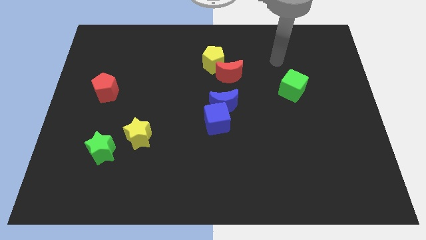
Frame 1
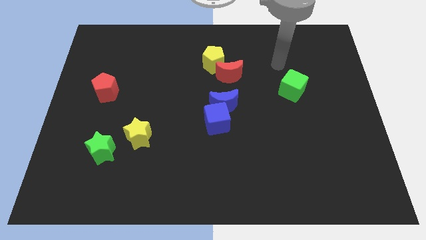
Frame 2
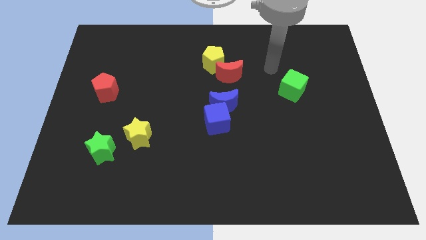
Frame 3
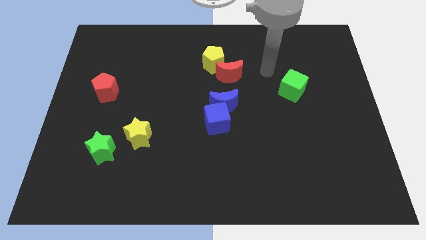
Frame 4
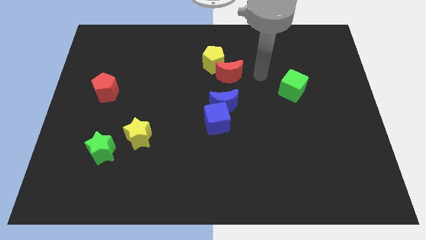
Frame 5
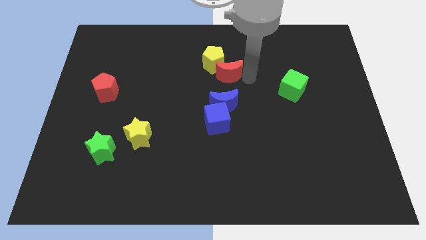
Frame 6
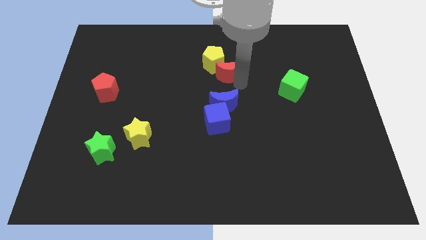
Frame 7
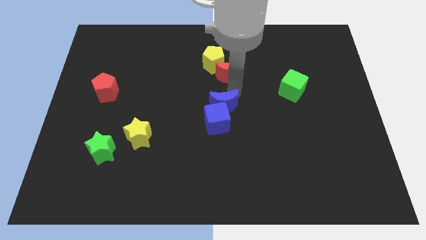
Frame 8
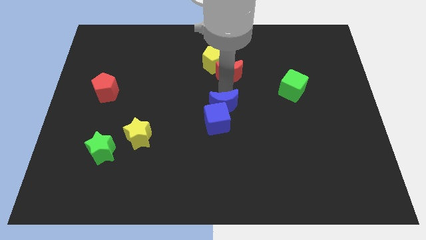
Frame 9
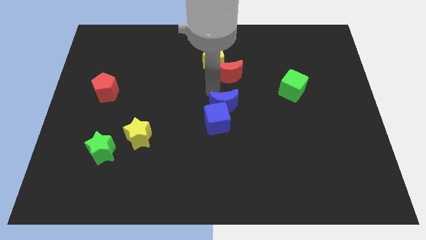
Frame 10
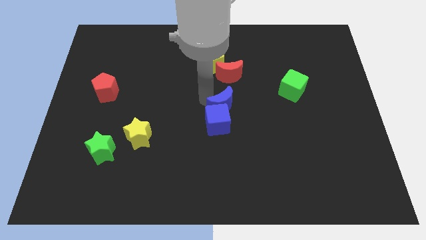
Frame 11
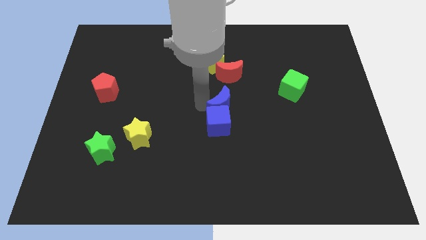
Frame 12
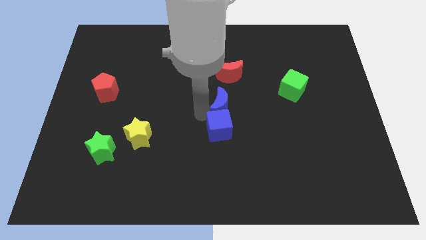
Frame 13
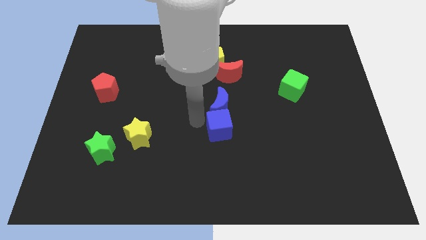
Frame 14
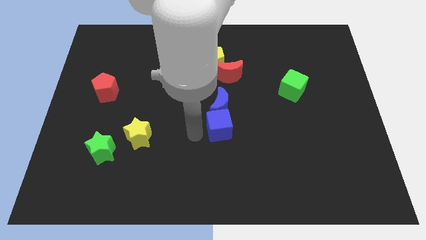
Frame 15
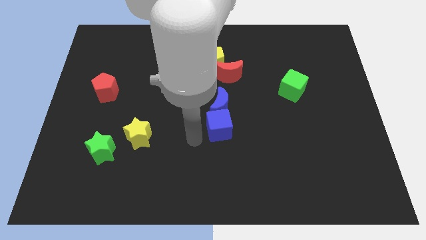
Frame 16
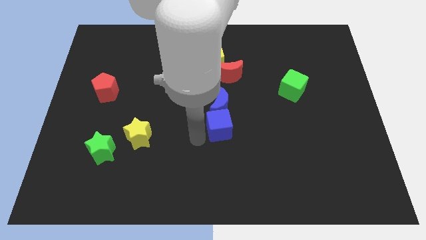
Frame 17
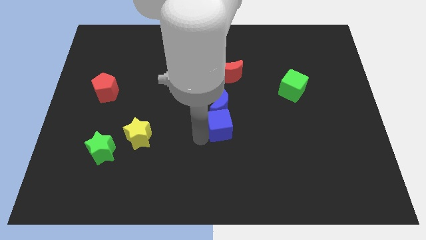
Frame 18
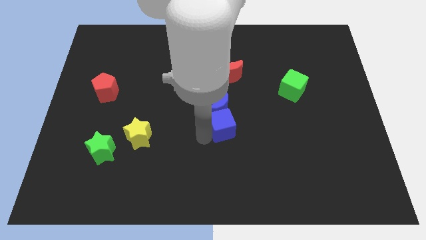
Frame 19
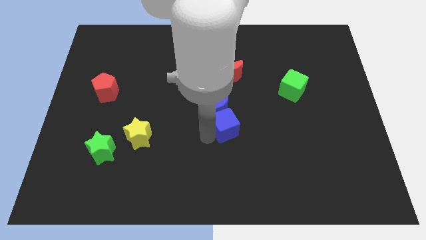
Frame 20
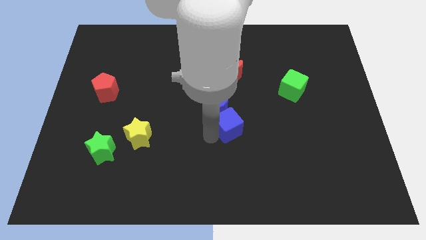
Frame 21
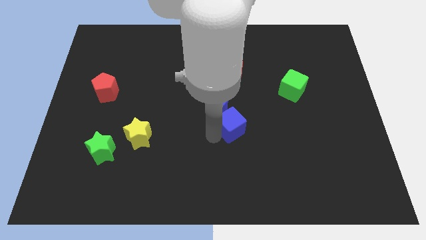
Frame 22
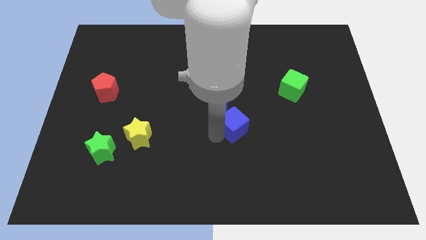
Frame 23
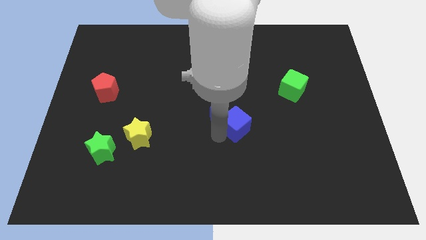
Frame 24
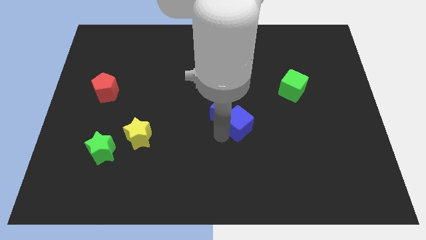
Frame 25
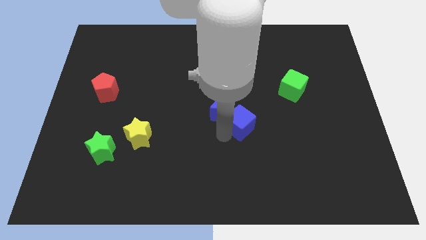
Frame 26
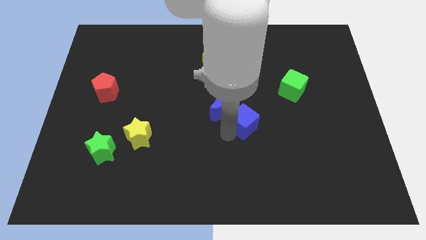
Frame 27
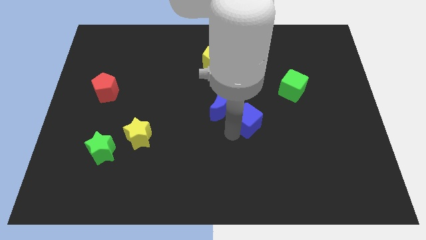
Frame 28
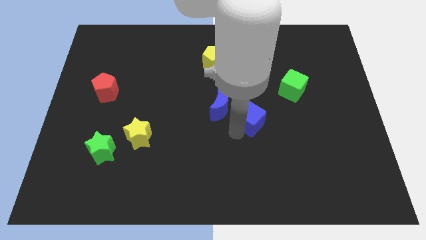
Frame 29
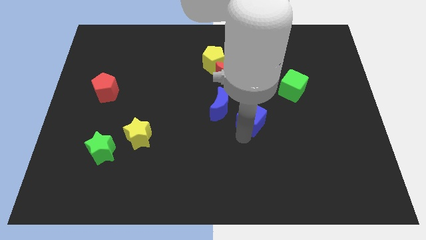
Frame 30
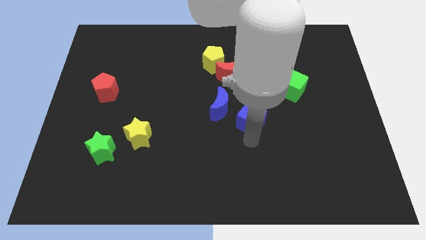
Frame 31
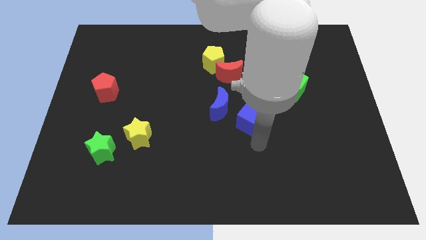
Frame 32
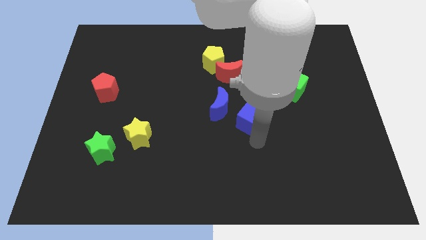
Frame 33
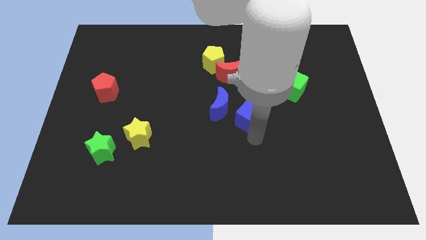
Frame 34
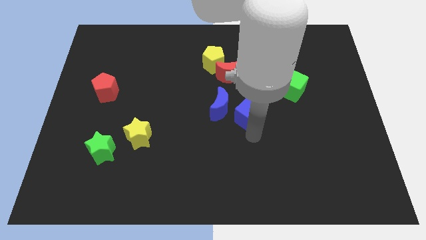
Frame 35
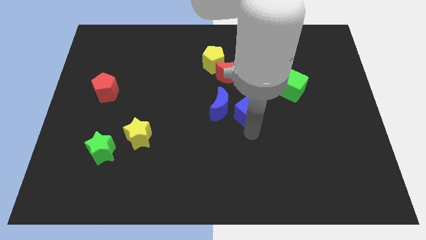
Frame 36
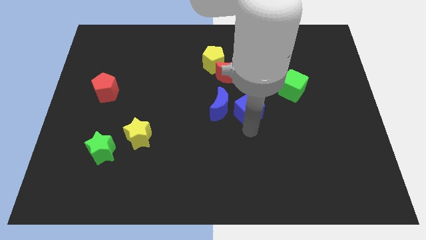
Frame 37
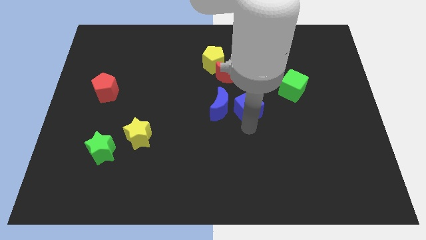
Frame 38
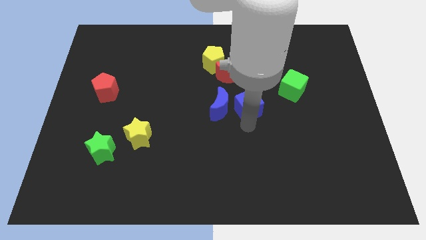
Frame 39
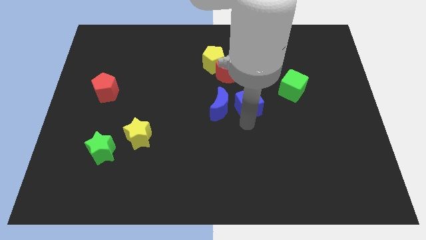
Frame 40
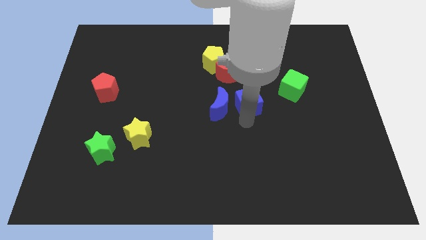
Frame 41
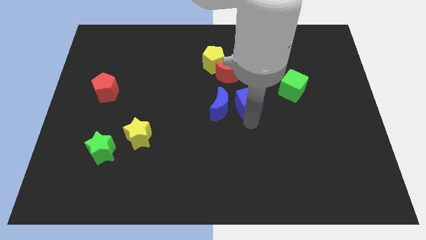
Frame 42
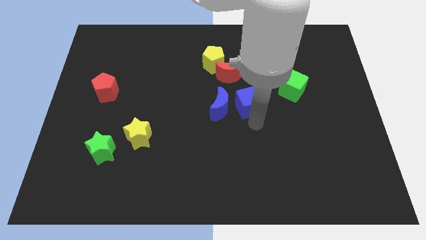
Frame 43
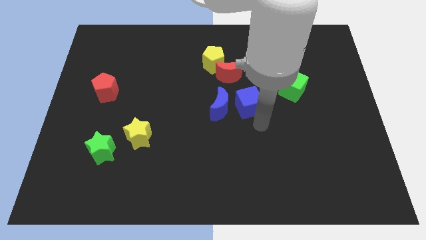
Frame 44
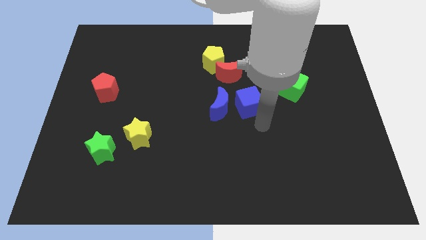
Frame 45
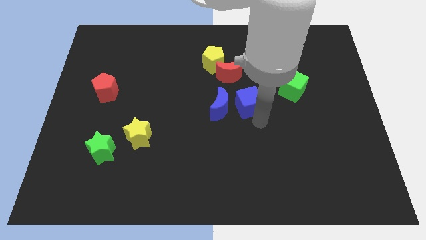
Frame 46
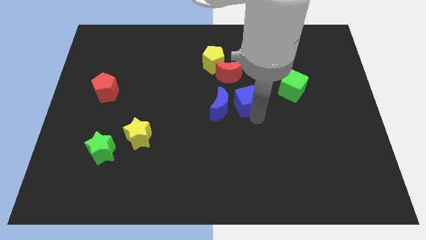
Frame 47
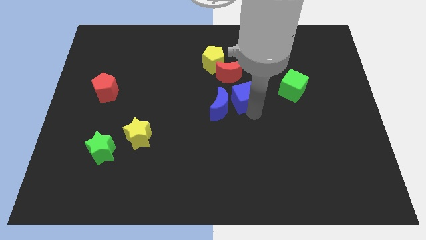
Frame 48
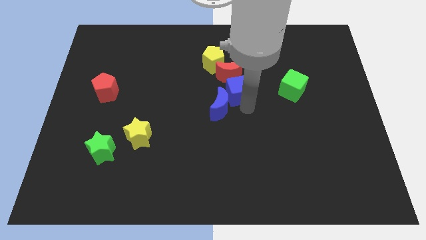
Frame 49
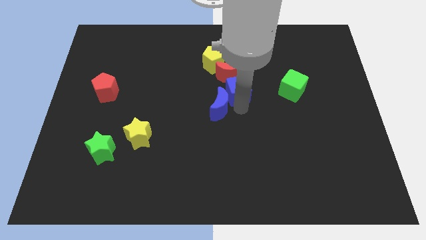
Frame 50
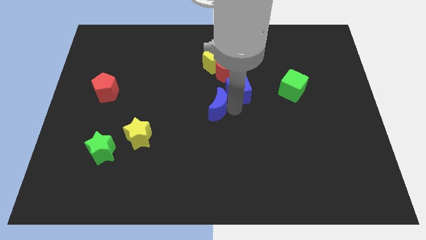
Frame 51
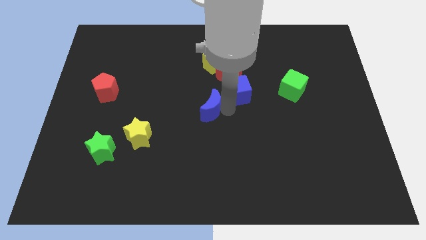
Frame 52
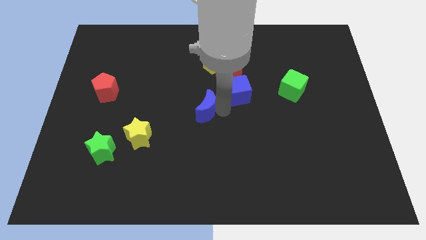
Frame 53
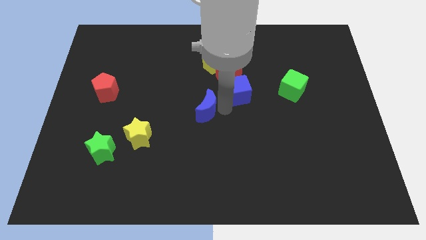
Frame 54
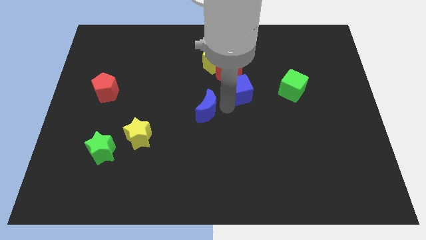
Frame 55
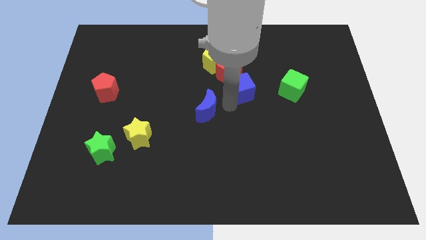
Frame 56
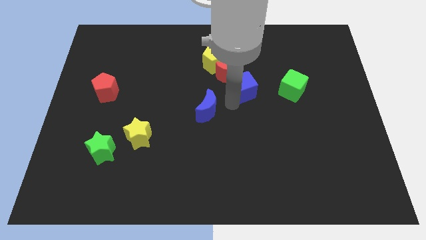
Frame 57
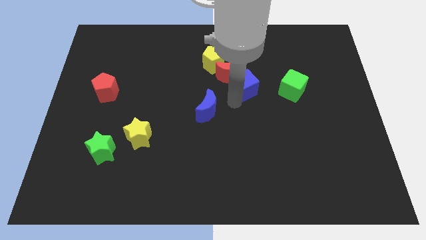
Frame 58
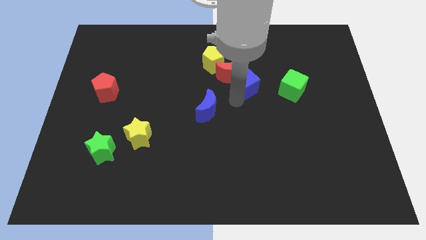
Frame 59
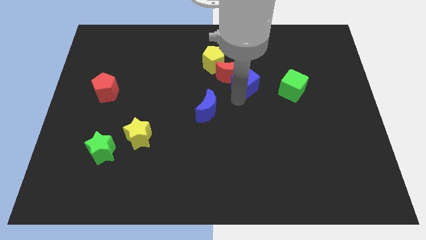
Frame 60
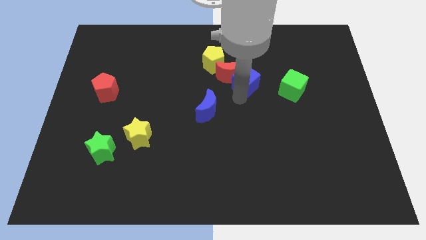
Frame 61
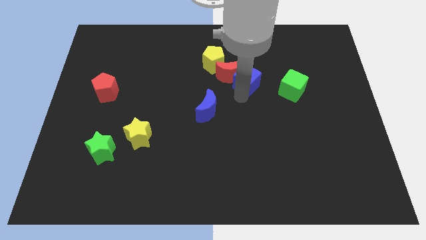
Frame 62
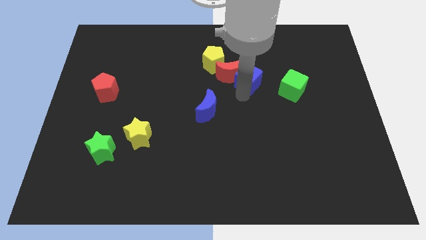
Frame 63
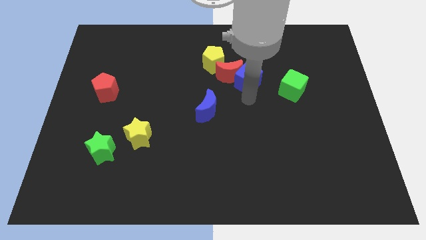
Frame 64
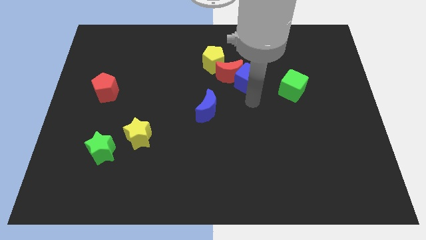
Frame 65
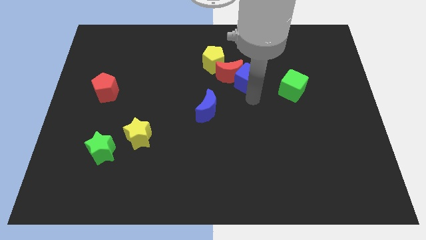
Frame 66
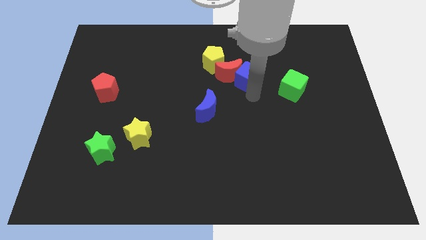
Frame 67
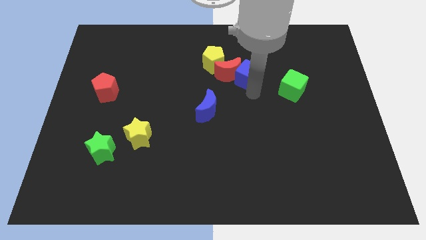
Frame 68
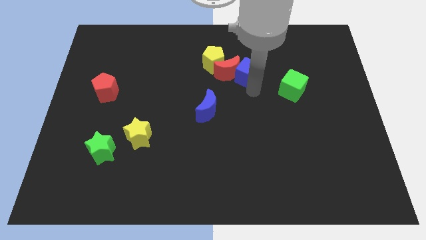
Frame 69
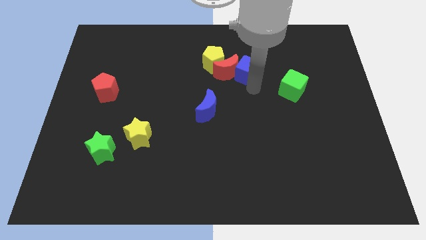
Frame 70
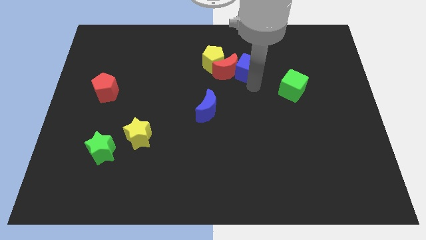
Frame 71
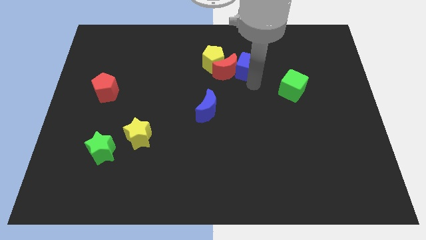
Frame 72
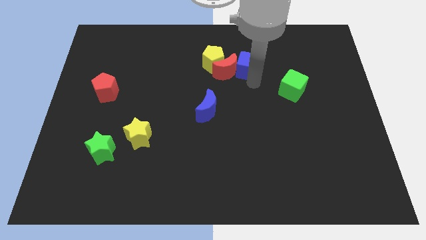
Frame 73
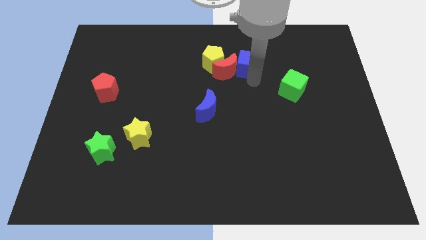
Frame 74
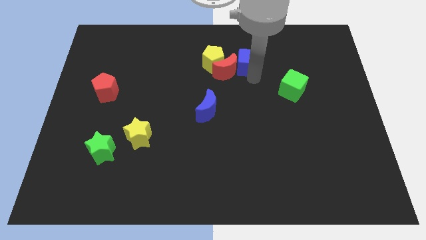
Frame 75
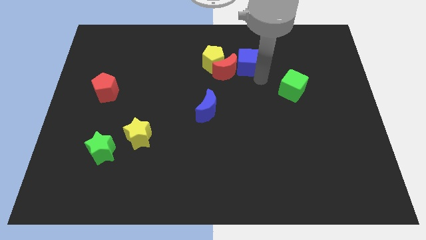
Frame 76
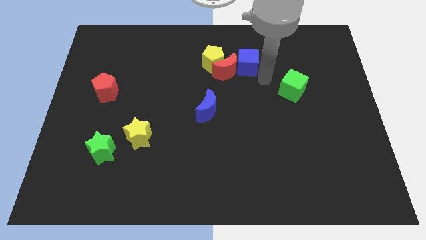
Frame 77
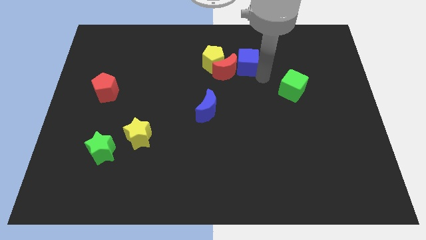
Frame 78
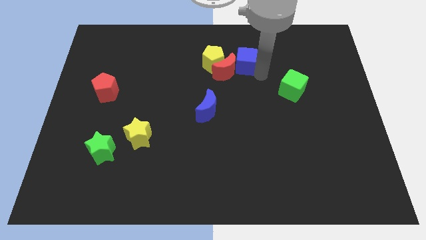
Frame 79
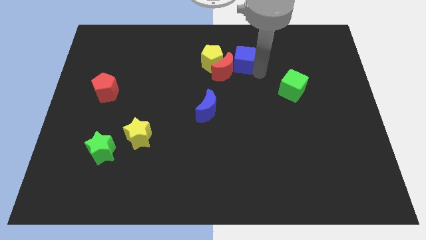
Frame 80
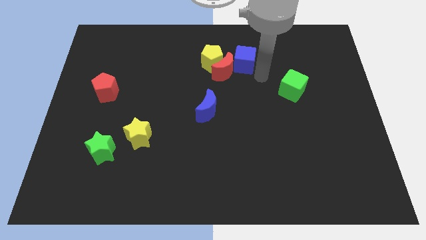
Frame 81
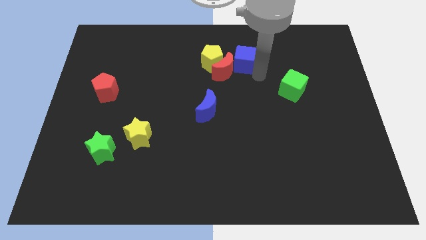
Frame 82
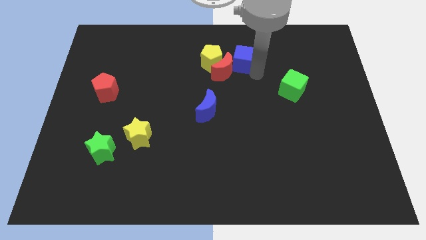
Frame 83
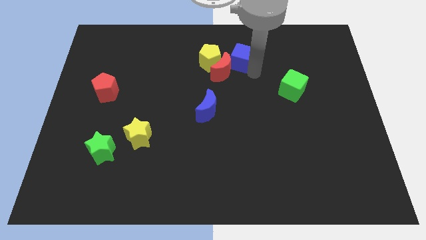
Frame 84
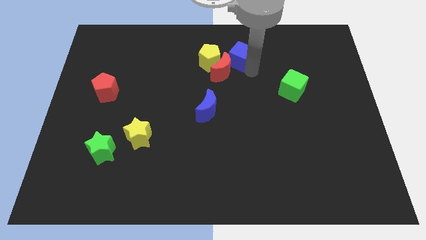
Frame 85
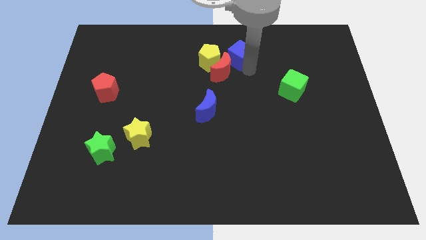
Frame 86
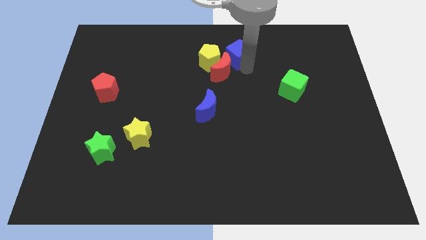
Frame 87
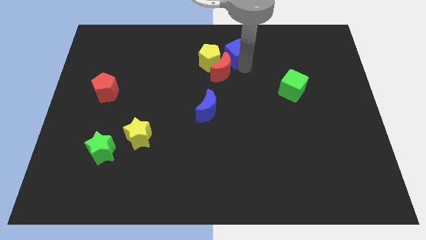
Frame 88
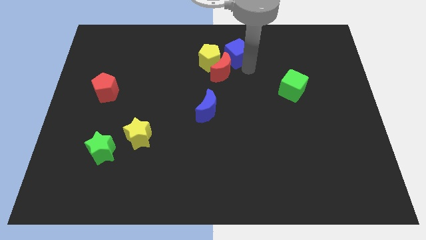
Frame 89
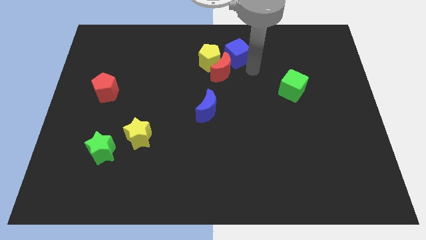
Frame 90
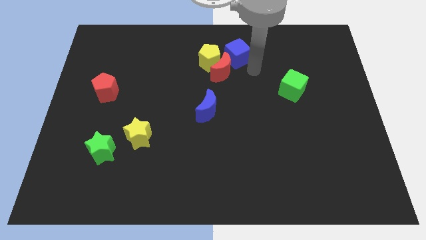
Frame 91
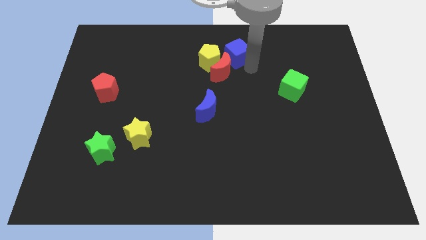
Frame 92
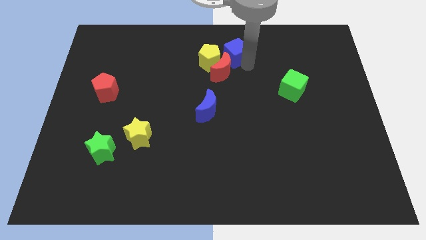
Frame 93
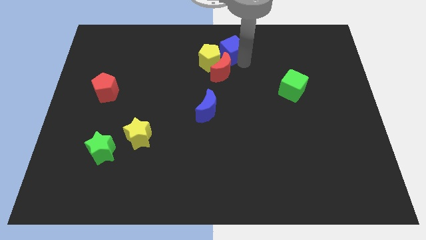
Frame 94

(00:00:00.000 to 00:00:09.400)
push the blue cube to the towards your base
